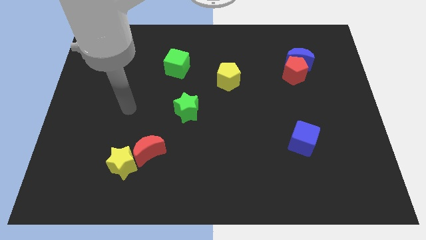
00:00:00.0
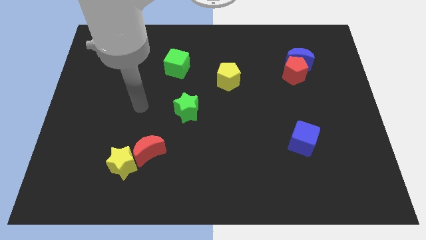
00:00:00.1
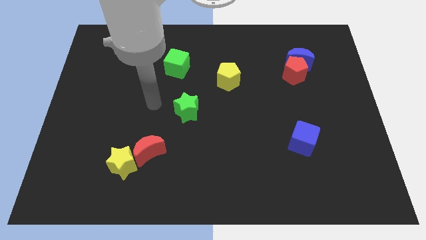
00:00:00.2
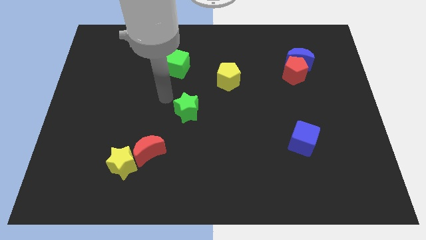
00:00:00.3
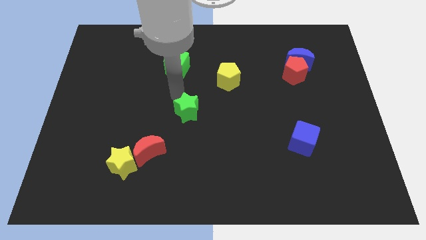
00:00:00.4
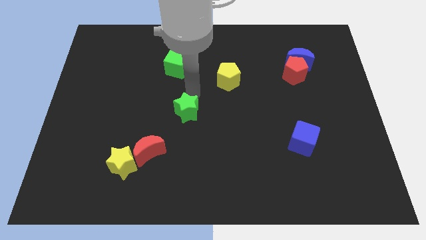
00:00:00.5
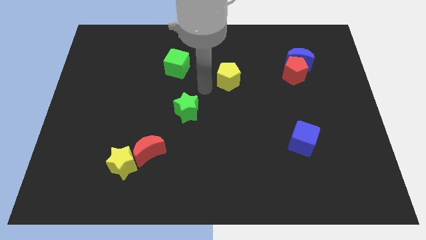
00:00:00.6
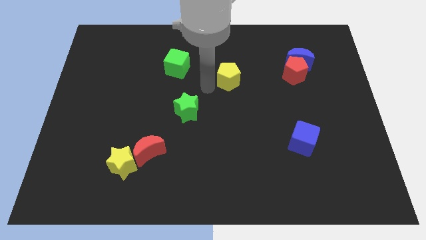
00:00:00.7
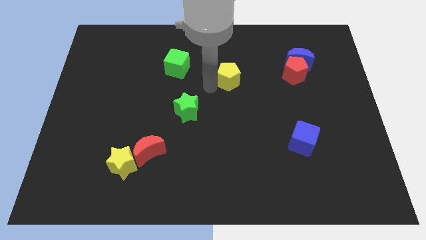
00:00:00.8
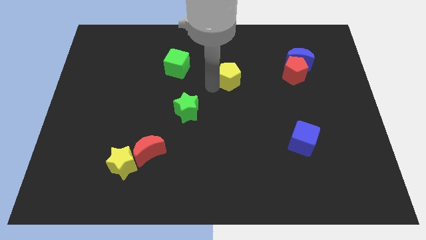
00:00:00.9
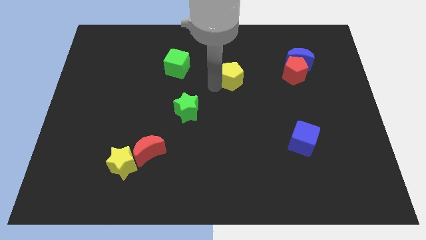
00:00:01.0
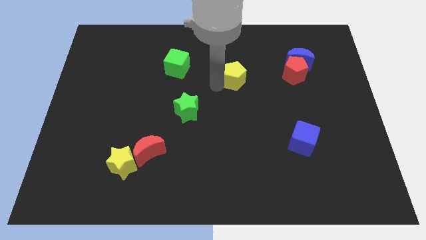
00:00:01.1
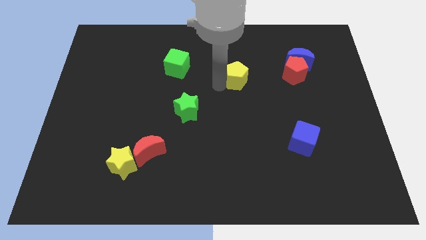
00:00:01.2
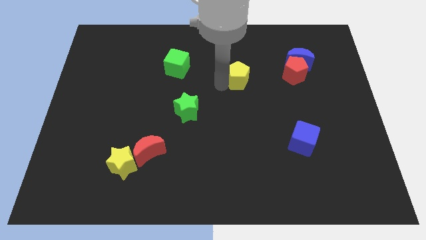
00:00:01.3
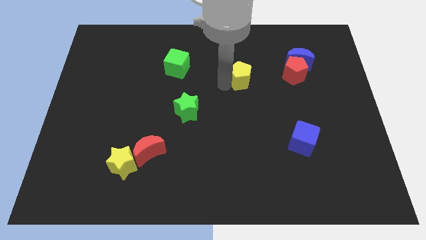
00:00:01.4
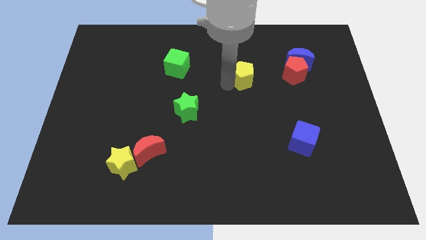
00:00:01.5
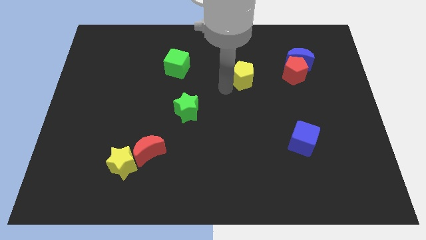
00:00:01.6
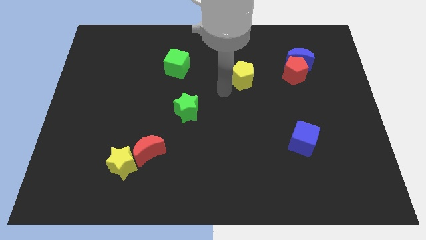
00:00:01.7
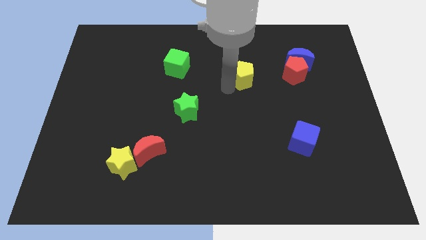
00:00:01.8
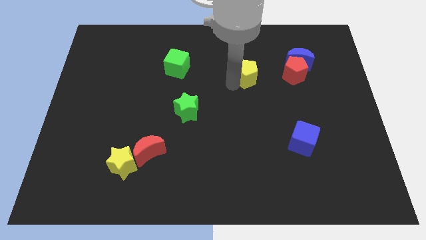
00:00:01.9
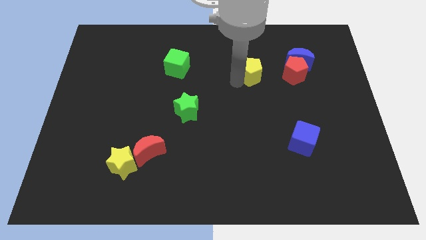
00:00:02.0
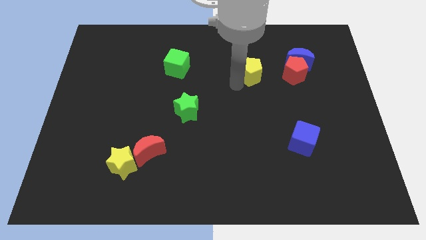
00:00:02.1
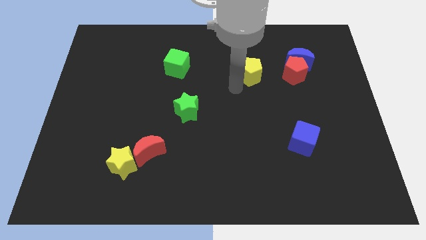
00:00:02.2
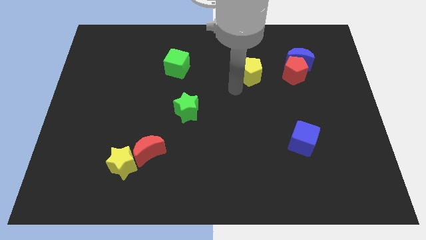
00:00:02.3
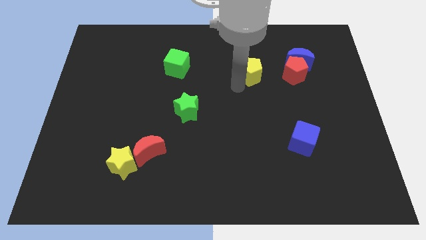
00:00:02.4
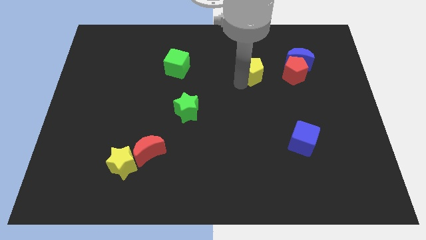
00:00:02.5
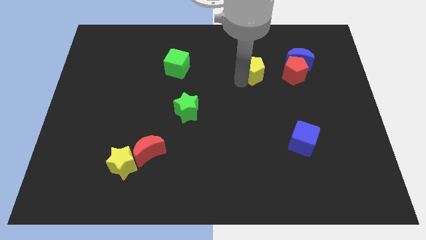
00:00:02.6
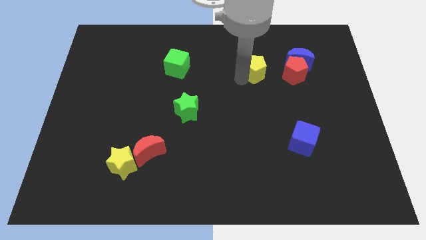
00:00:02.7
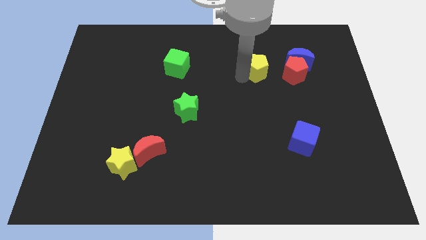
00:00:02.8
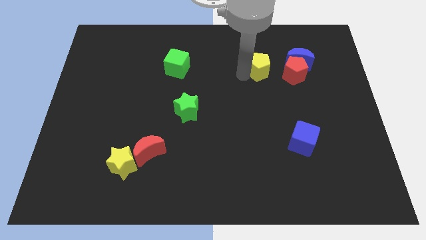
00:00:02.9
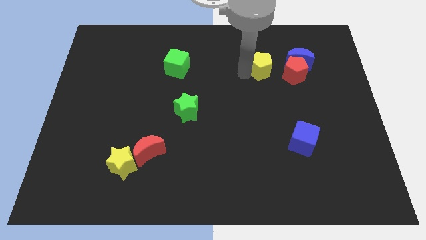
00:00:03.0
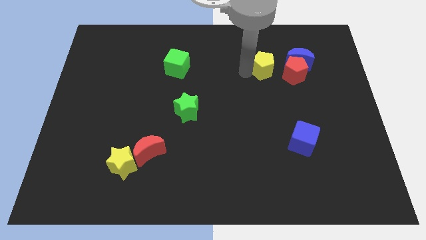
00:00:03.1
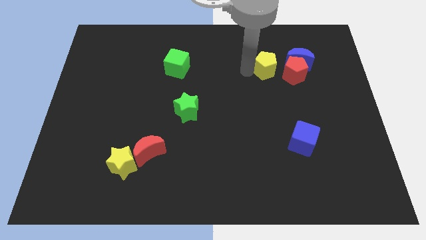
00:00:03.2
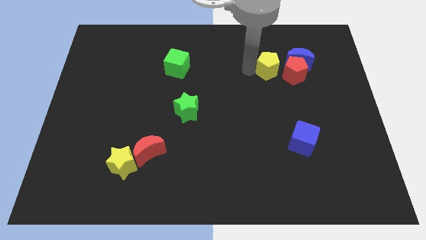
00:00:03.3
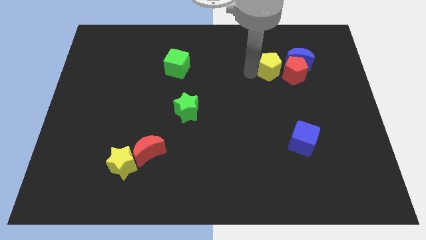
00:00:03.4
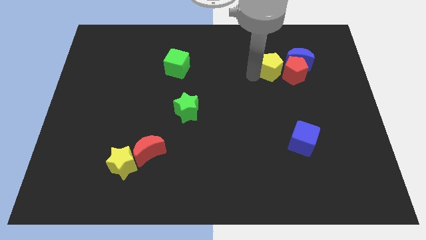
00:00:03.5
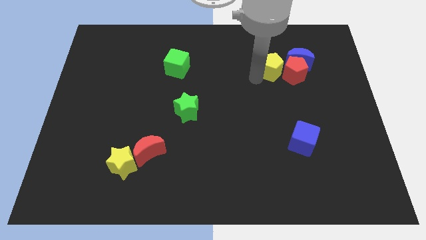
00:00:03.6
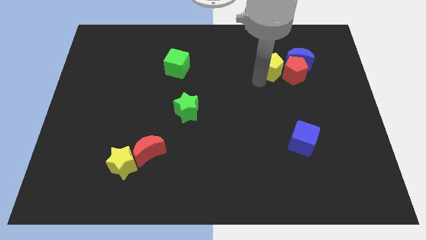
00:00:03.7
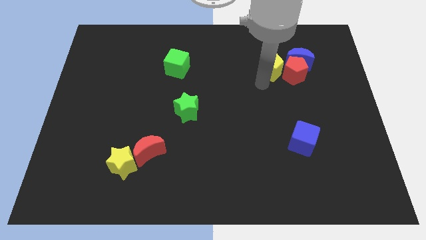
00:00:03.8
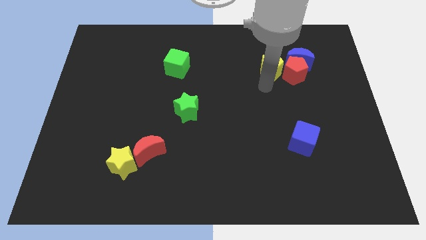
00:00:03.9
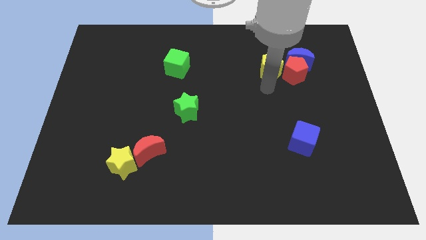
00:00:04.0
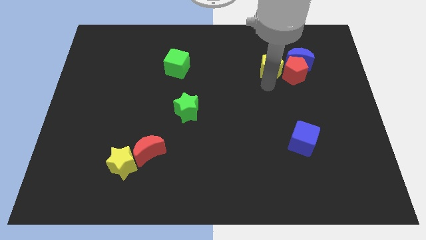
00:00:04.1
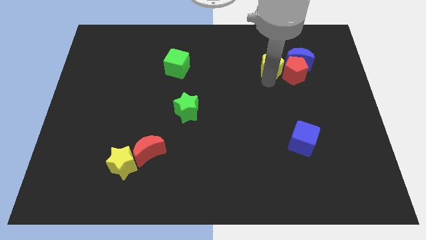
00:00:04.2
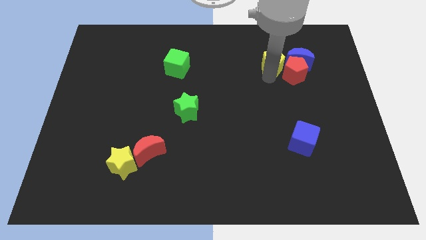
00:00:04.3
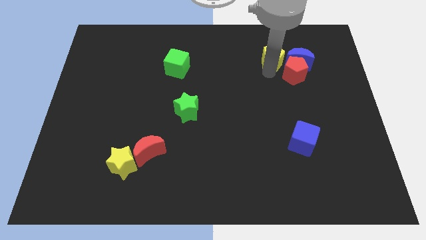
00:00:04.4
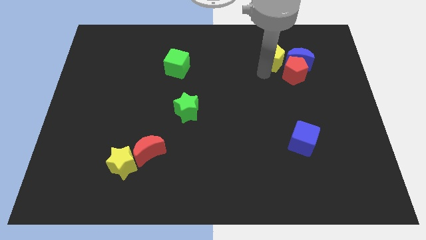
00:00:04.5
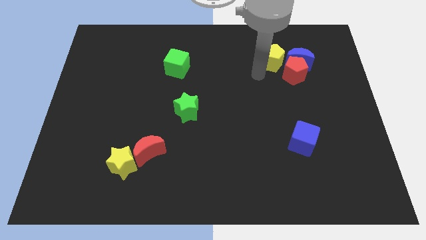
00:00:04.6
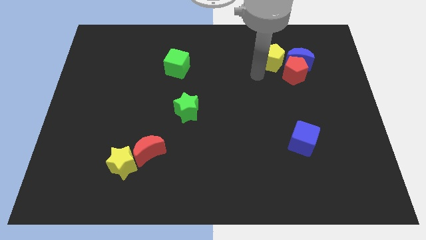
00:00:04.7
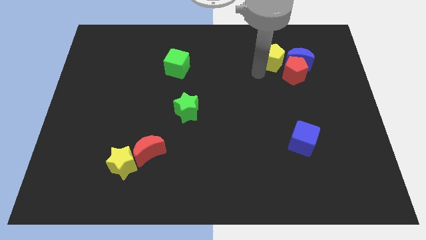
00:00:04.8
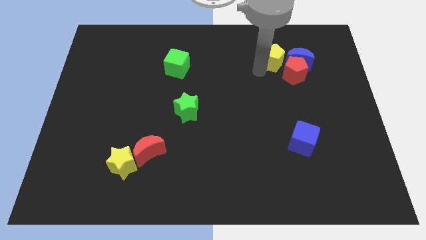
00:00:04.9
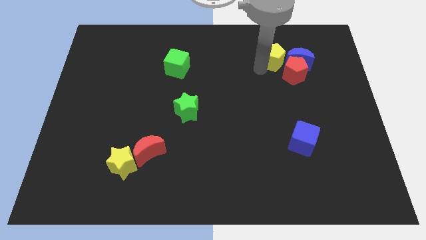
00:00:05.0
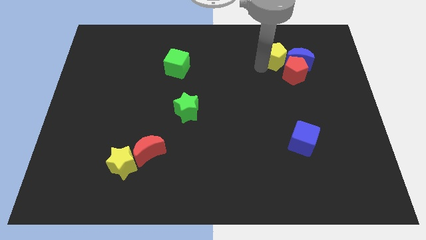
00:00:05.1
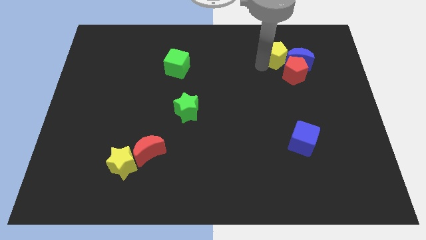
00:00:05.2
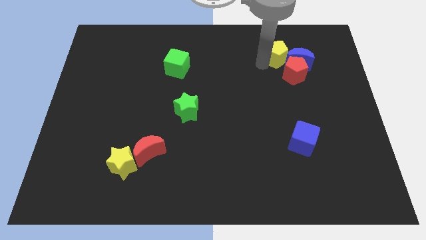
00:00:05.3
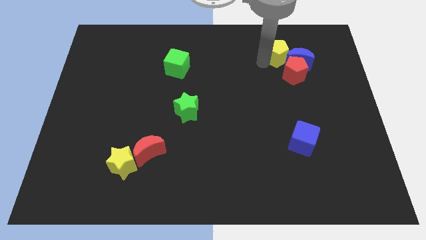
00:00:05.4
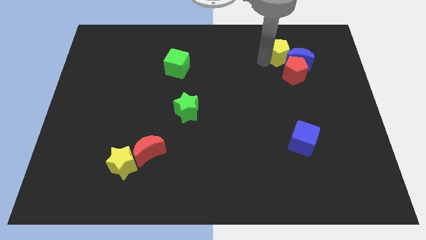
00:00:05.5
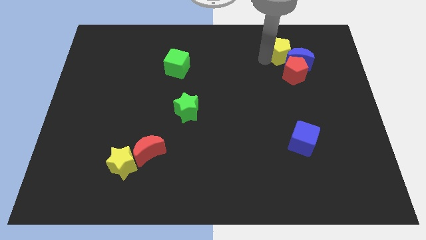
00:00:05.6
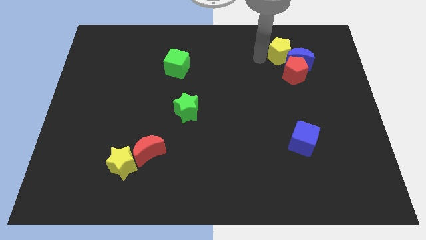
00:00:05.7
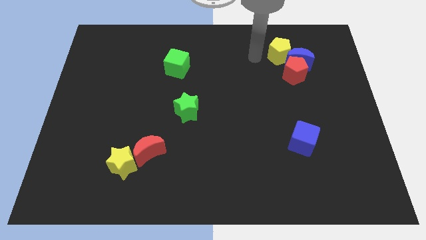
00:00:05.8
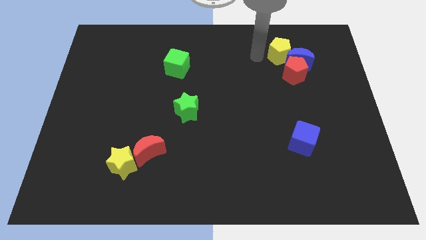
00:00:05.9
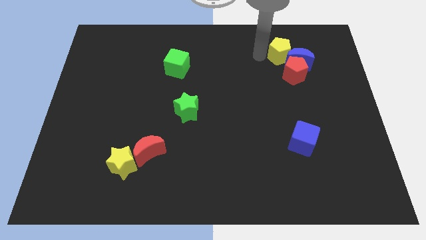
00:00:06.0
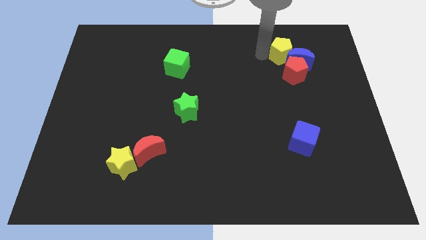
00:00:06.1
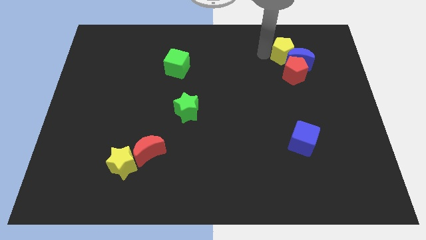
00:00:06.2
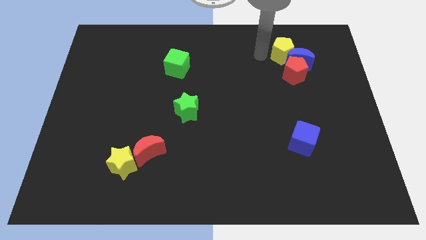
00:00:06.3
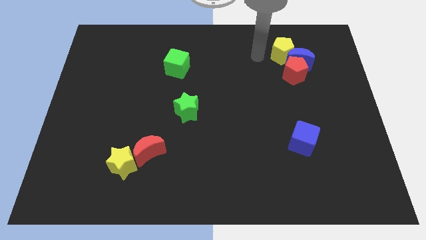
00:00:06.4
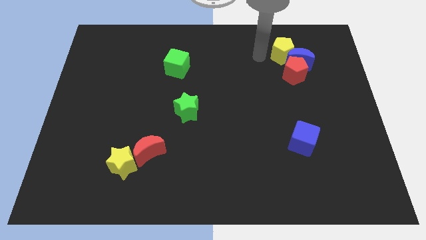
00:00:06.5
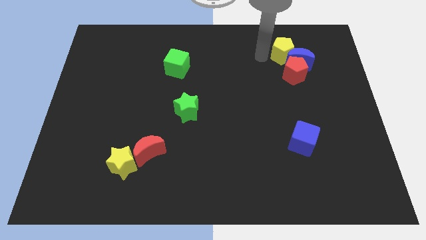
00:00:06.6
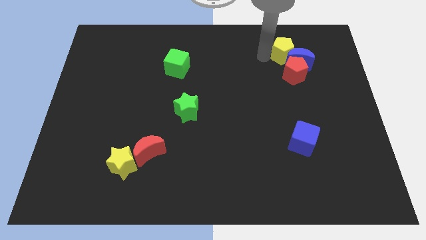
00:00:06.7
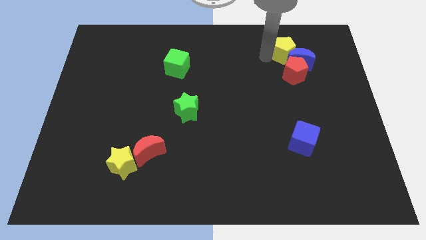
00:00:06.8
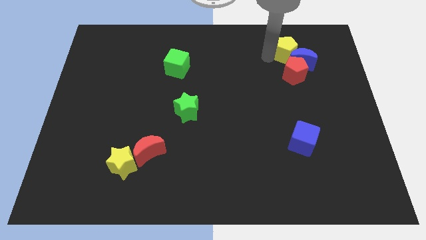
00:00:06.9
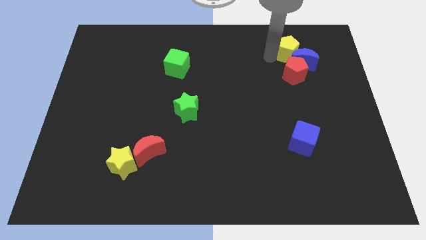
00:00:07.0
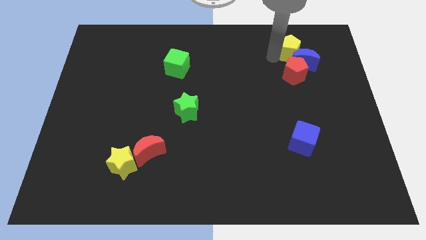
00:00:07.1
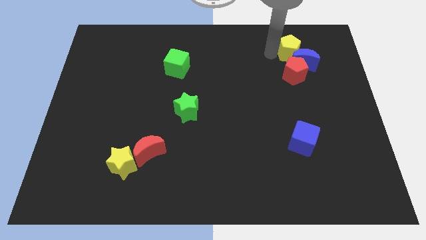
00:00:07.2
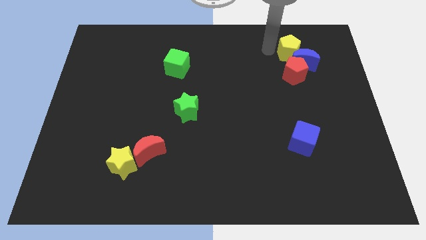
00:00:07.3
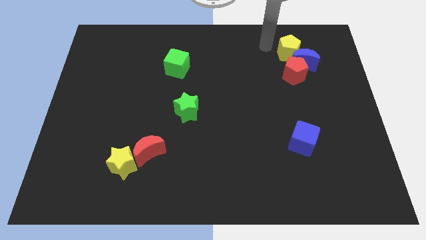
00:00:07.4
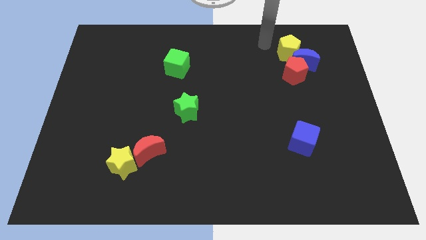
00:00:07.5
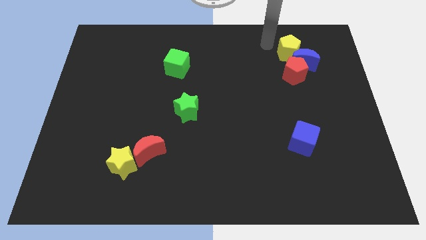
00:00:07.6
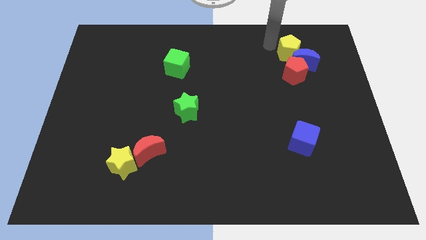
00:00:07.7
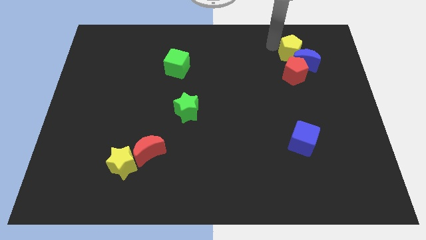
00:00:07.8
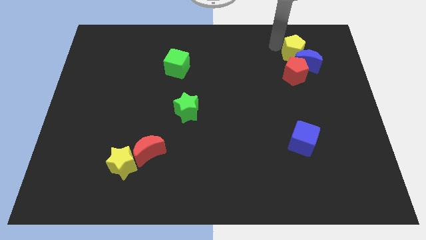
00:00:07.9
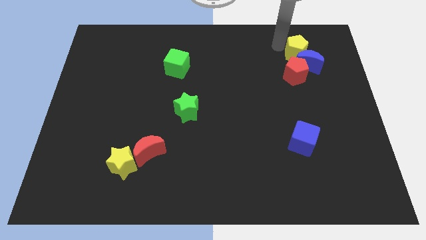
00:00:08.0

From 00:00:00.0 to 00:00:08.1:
slide the yellow pentagon diagonally up and to the right of the red pentagon
